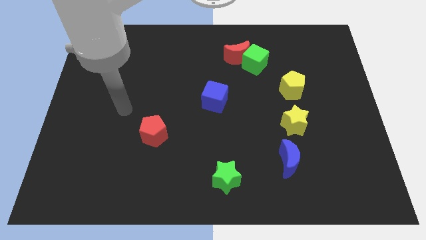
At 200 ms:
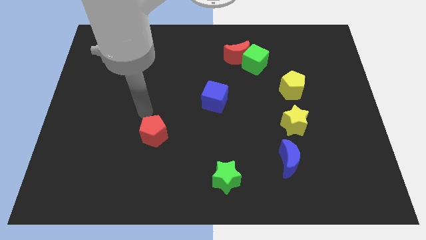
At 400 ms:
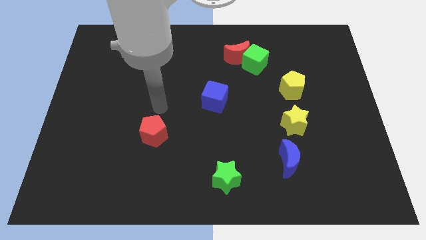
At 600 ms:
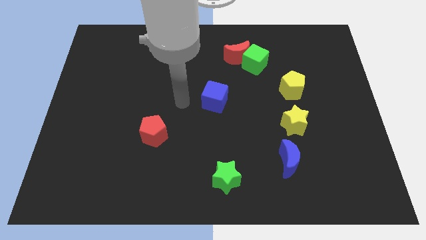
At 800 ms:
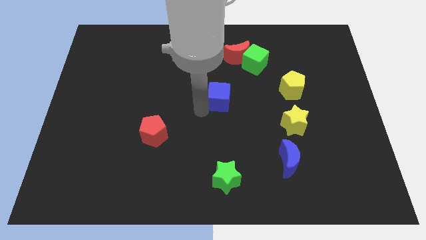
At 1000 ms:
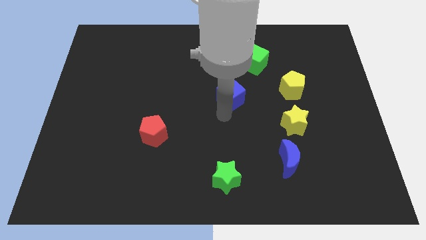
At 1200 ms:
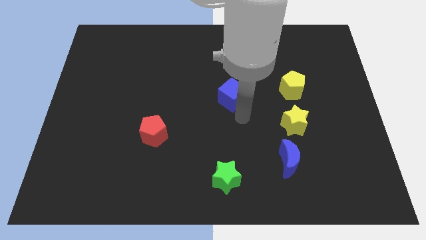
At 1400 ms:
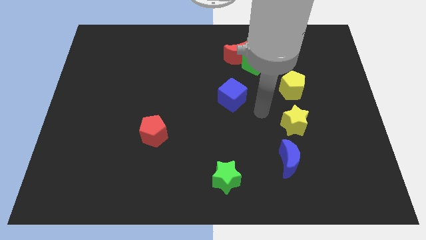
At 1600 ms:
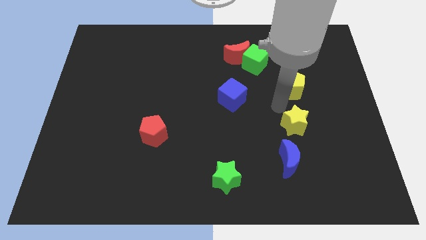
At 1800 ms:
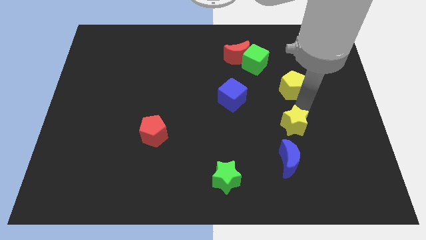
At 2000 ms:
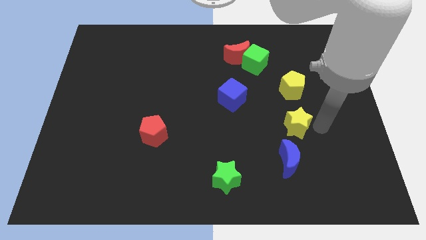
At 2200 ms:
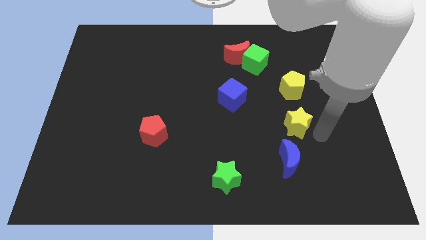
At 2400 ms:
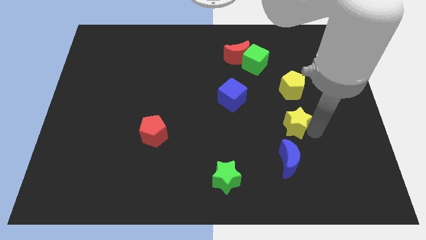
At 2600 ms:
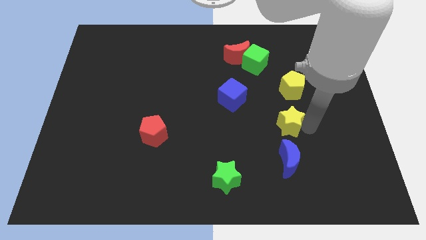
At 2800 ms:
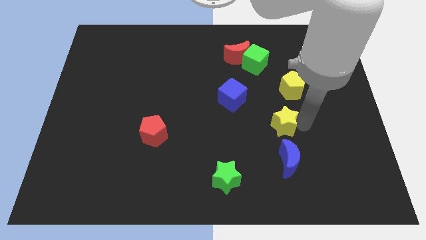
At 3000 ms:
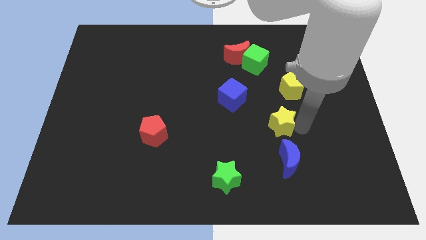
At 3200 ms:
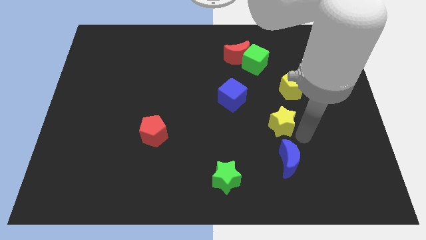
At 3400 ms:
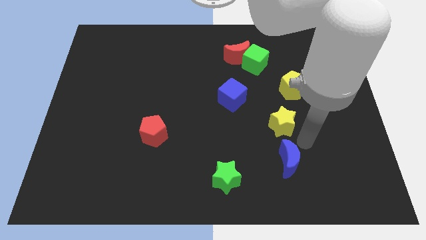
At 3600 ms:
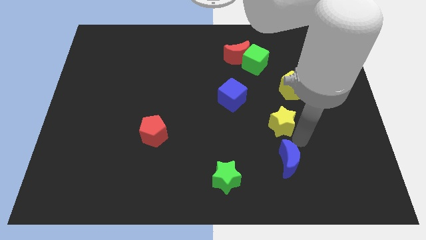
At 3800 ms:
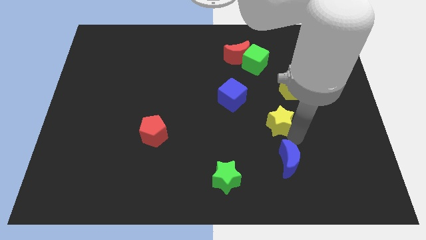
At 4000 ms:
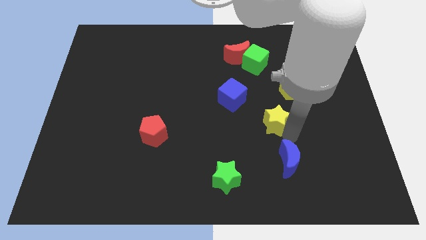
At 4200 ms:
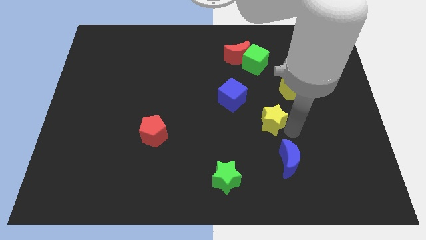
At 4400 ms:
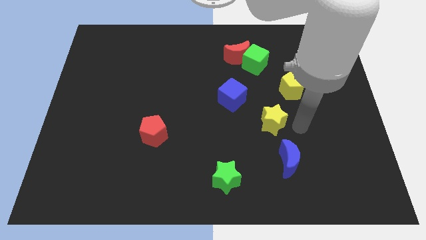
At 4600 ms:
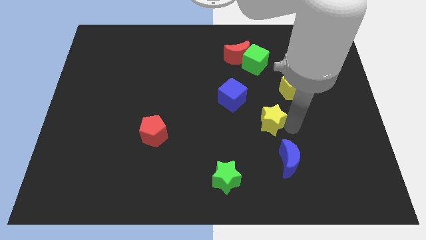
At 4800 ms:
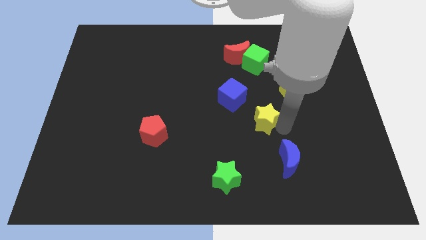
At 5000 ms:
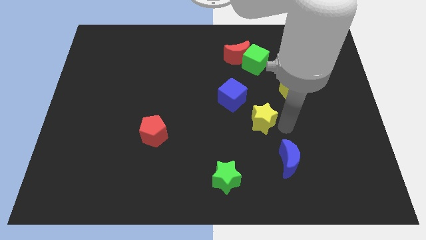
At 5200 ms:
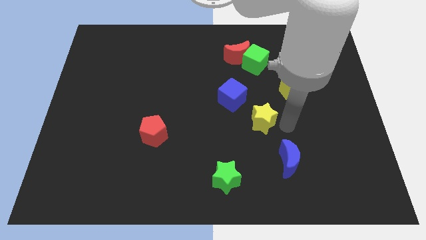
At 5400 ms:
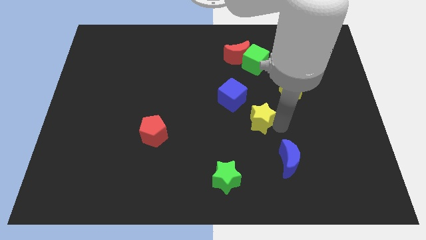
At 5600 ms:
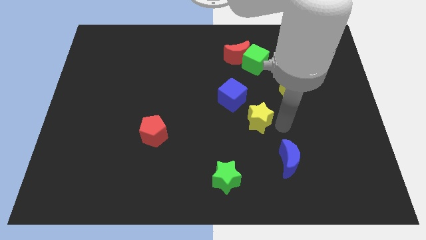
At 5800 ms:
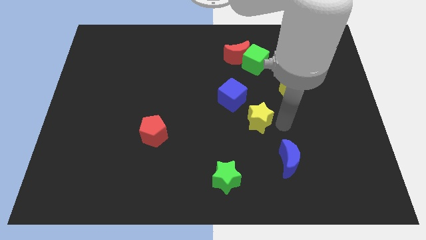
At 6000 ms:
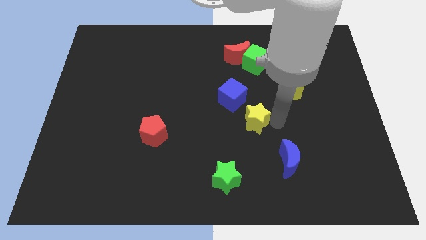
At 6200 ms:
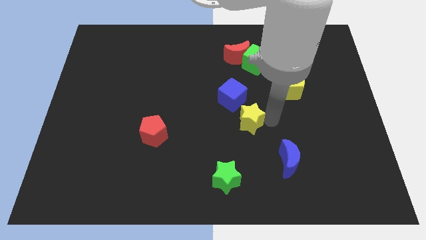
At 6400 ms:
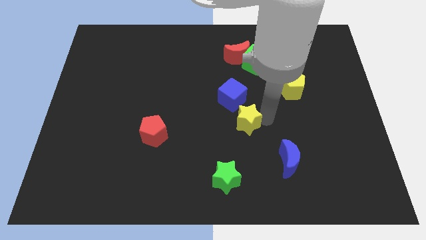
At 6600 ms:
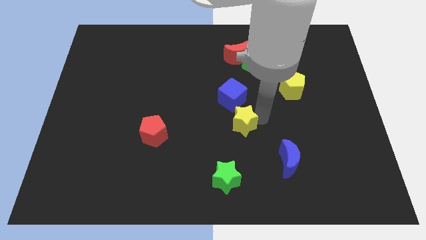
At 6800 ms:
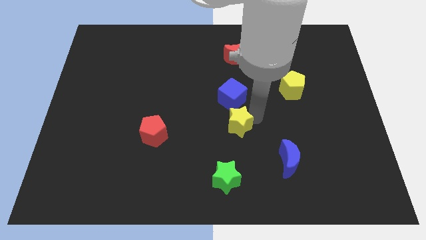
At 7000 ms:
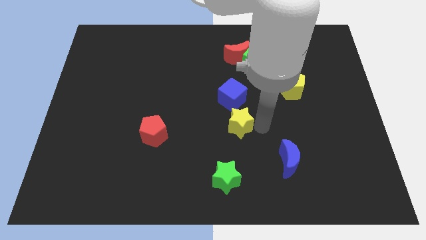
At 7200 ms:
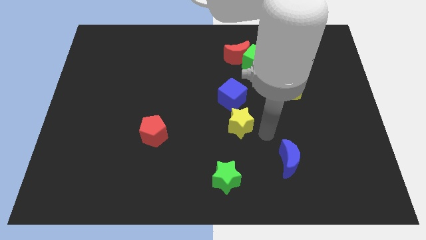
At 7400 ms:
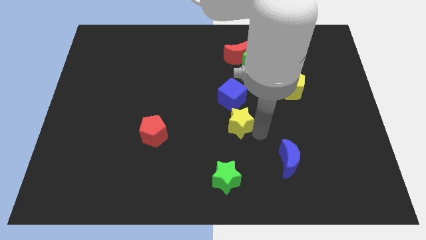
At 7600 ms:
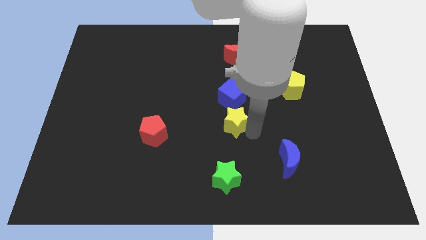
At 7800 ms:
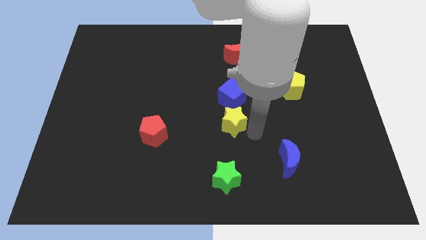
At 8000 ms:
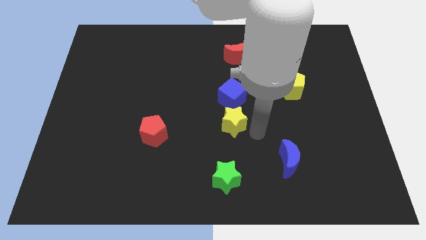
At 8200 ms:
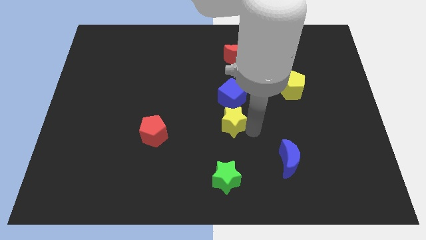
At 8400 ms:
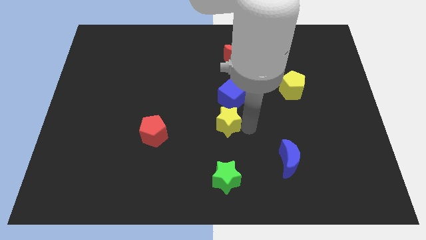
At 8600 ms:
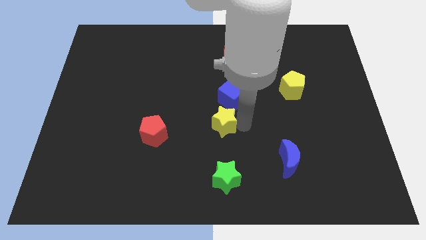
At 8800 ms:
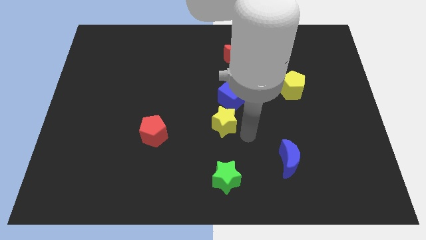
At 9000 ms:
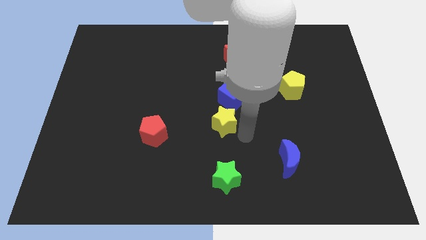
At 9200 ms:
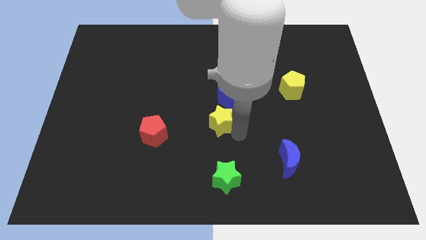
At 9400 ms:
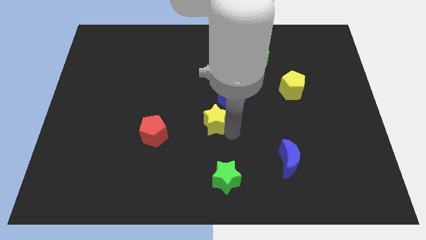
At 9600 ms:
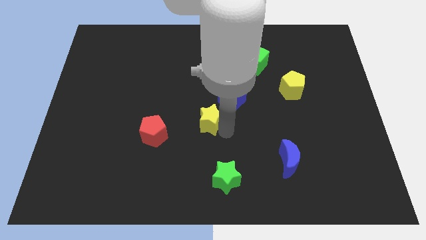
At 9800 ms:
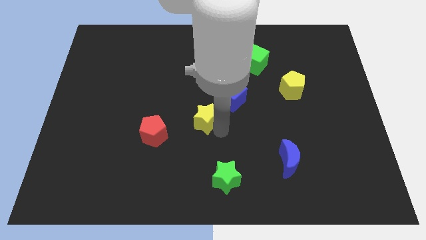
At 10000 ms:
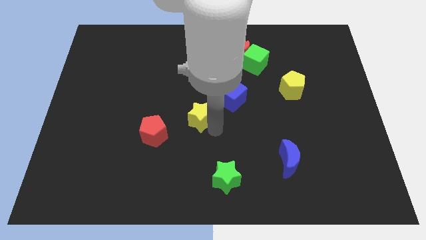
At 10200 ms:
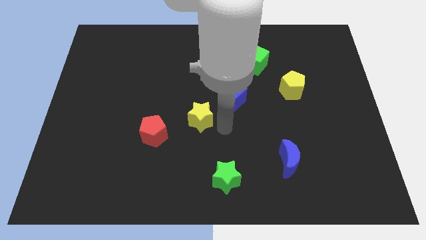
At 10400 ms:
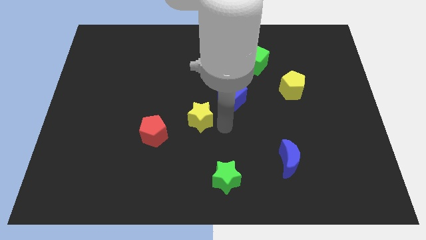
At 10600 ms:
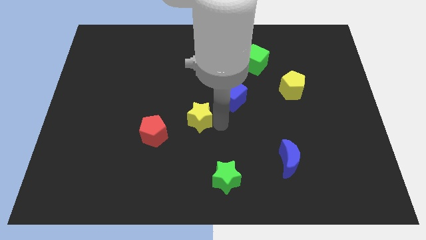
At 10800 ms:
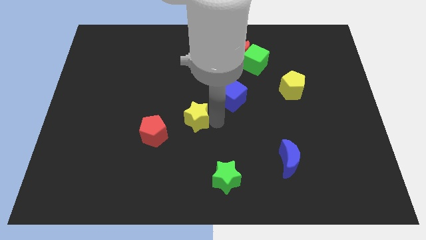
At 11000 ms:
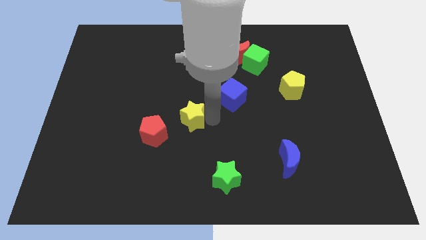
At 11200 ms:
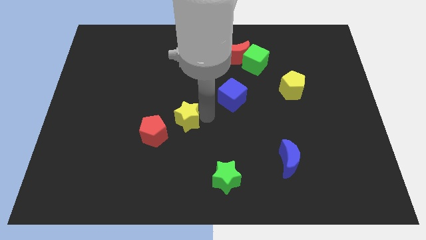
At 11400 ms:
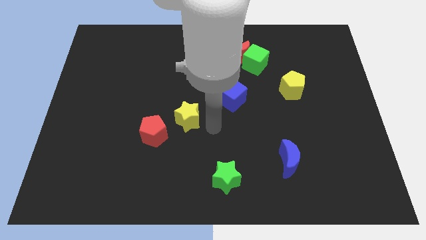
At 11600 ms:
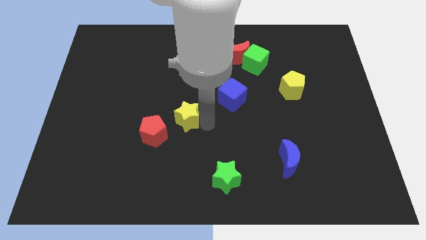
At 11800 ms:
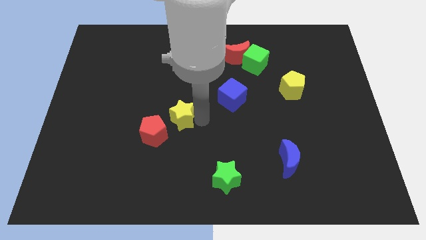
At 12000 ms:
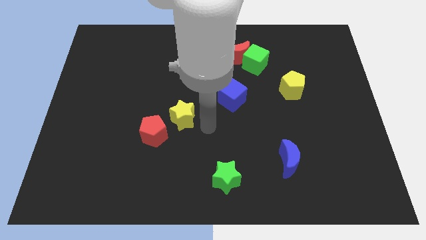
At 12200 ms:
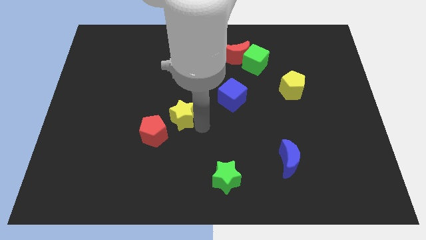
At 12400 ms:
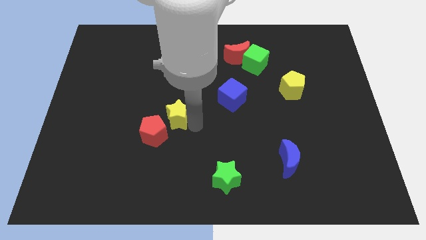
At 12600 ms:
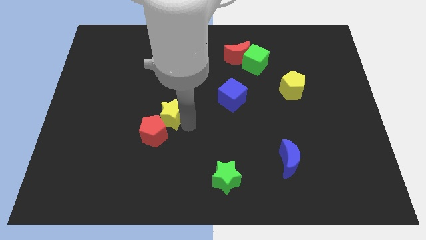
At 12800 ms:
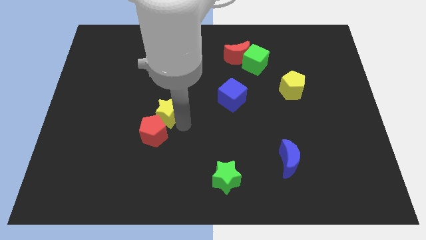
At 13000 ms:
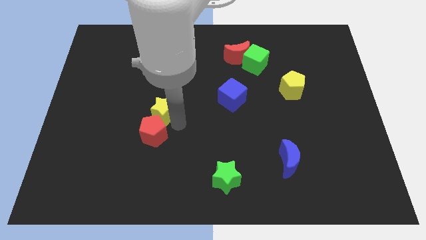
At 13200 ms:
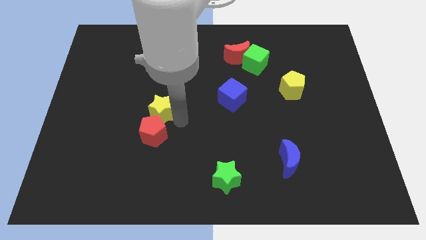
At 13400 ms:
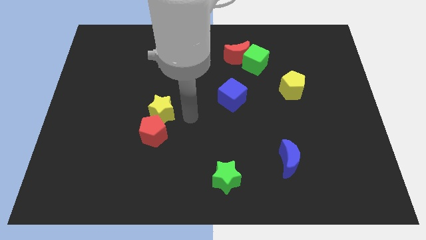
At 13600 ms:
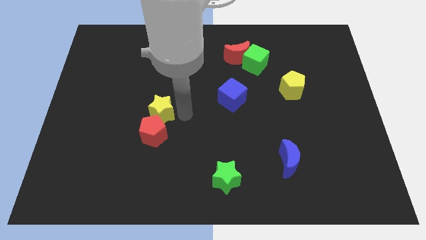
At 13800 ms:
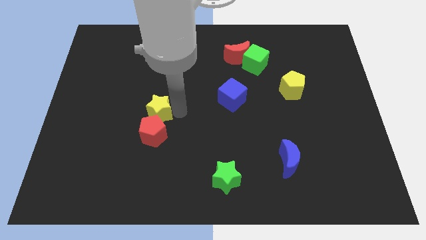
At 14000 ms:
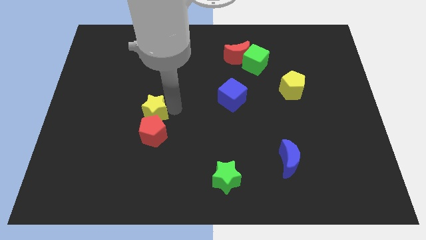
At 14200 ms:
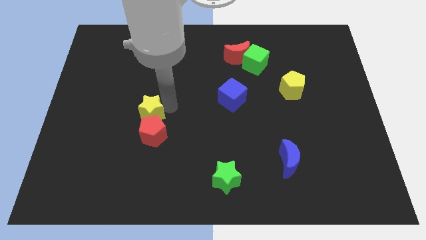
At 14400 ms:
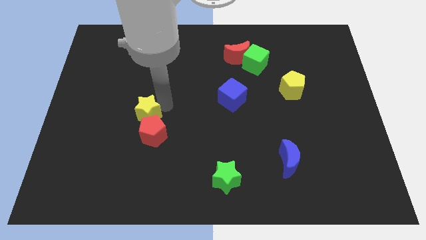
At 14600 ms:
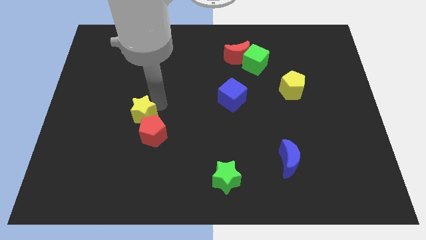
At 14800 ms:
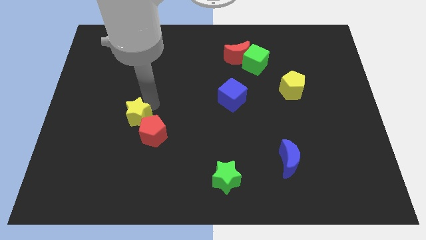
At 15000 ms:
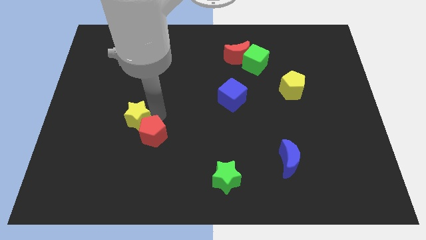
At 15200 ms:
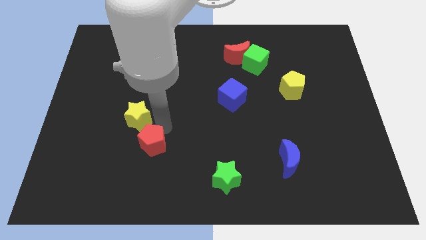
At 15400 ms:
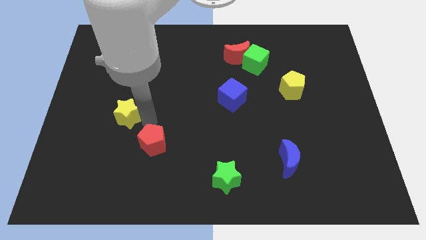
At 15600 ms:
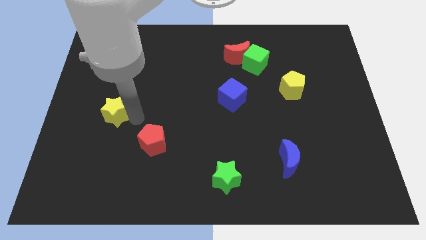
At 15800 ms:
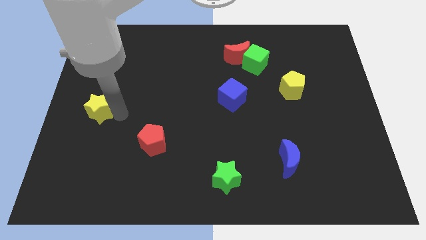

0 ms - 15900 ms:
put the yellow star to the left side
